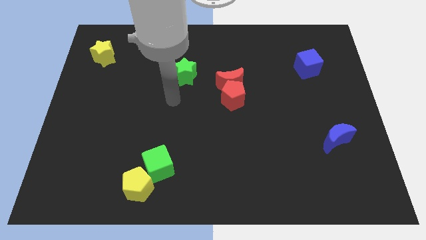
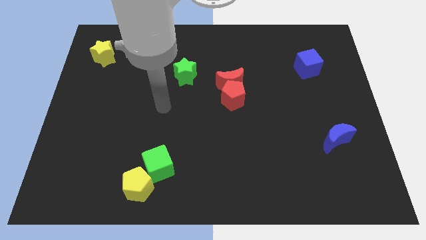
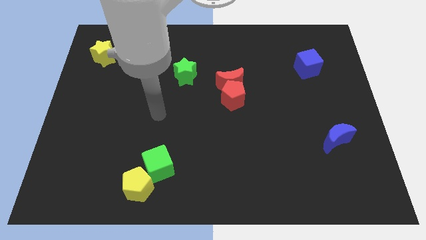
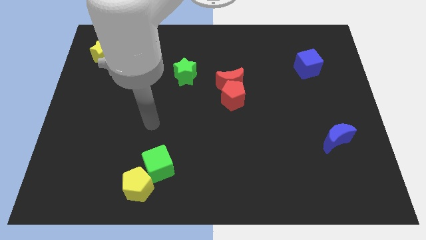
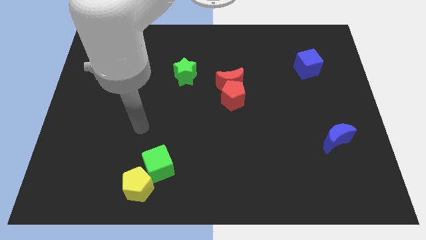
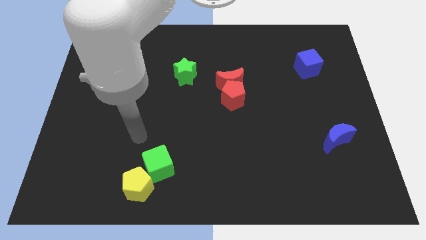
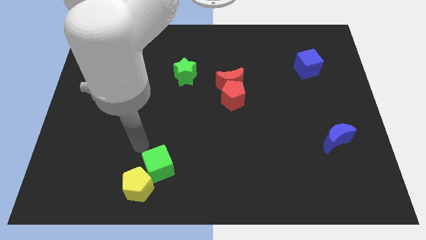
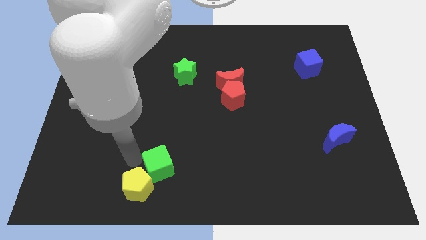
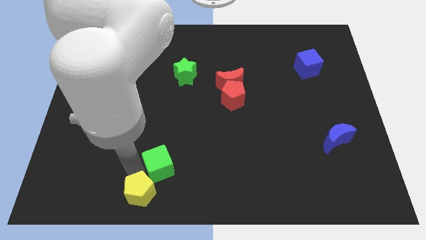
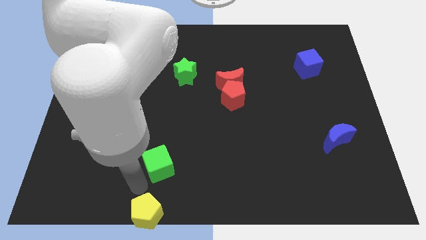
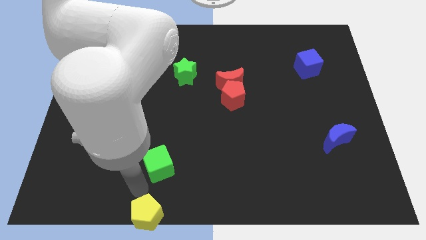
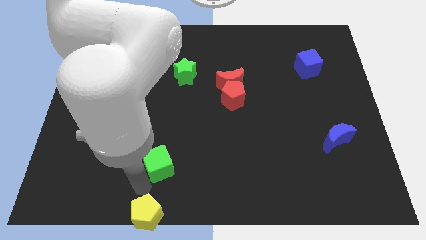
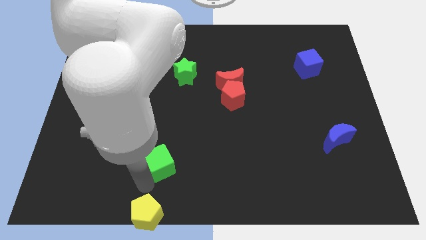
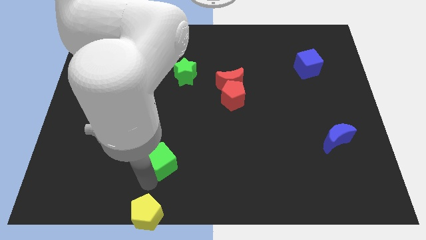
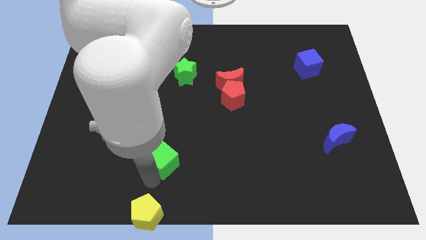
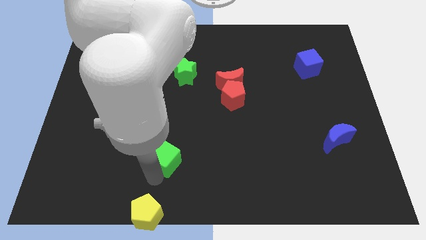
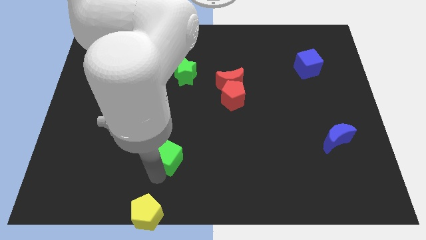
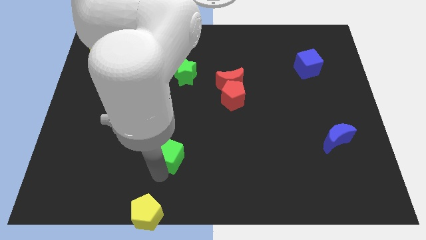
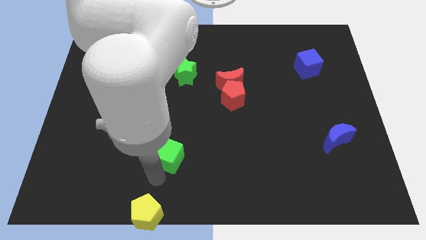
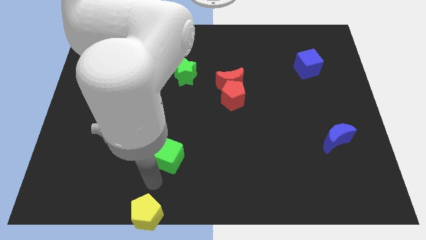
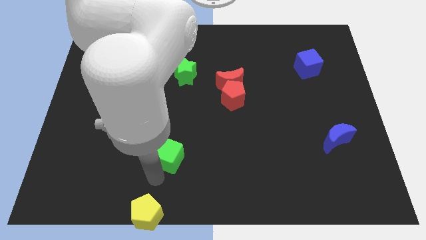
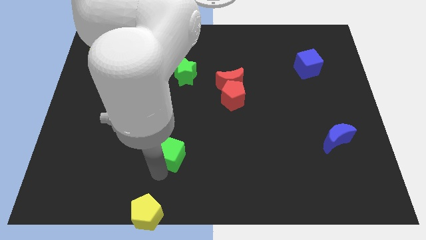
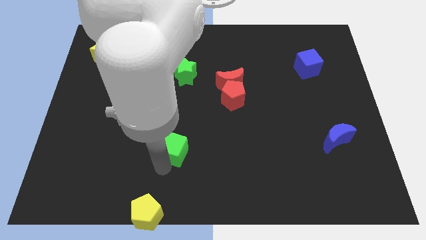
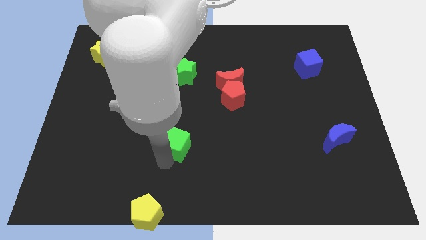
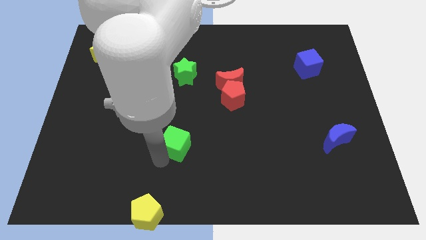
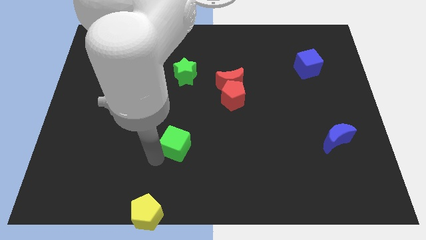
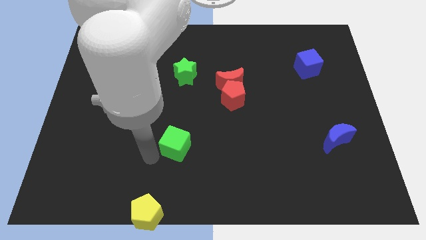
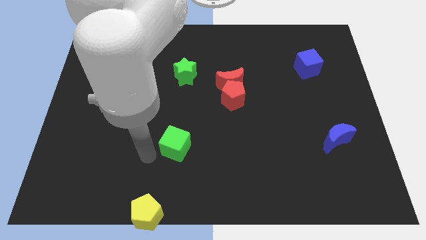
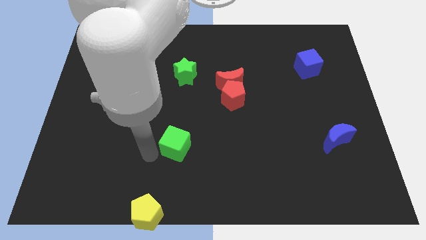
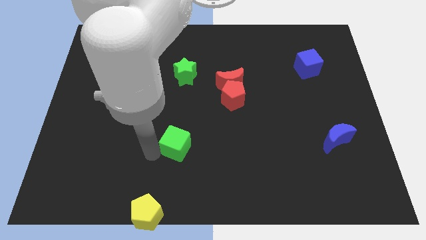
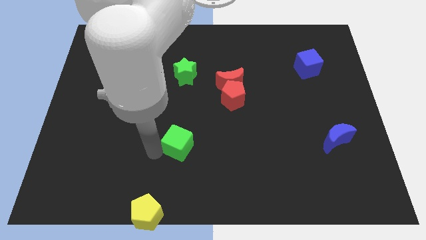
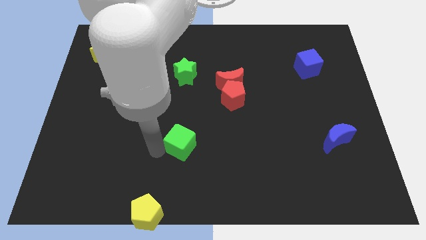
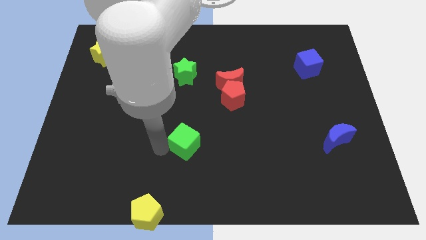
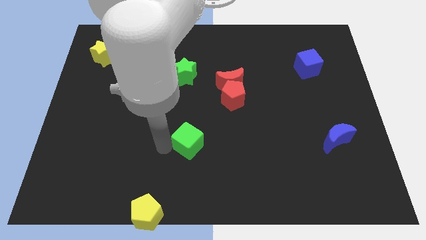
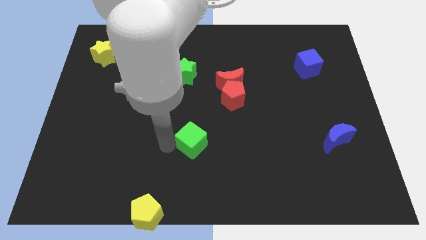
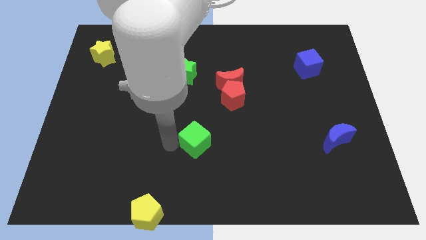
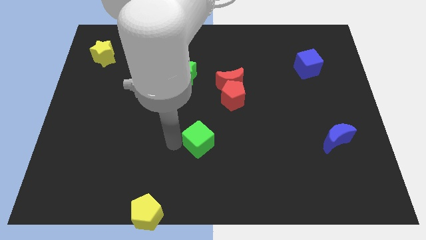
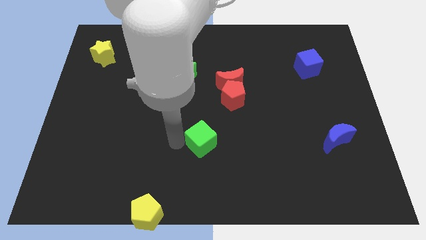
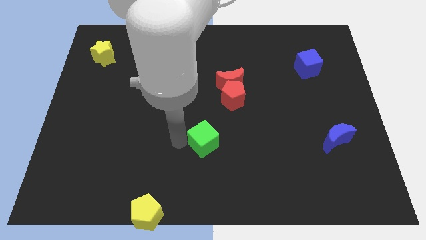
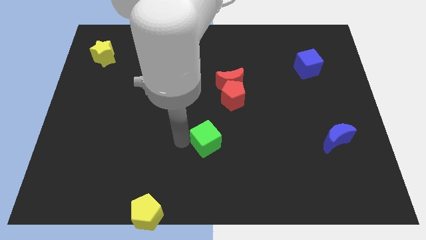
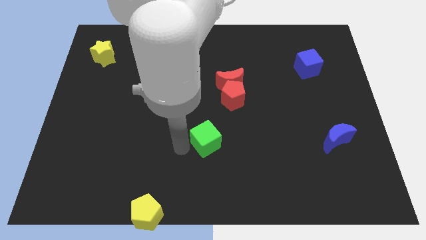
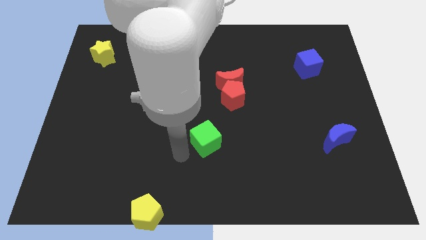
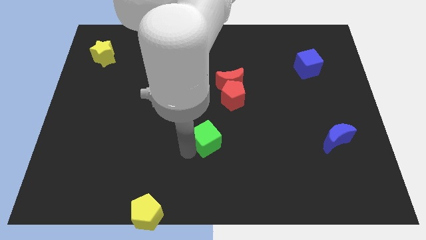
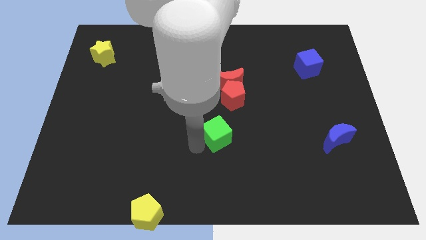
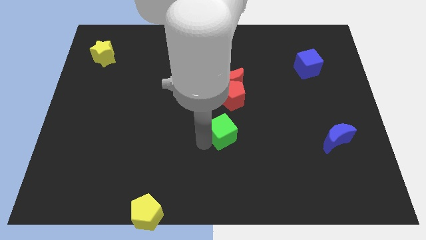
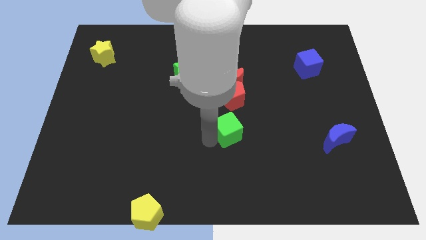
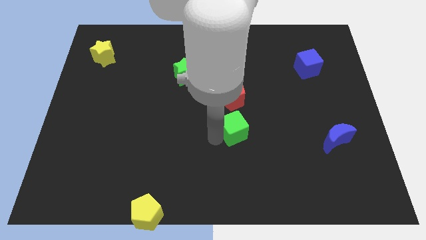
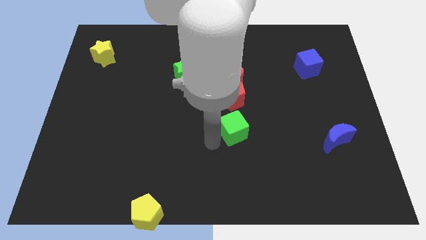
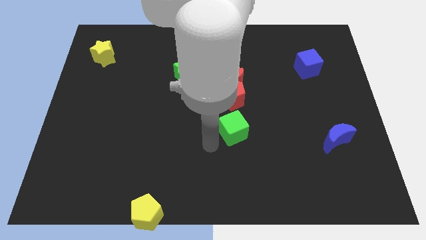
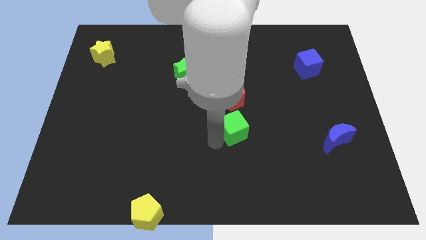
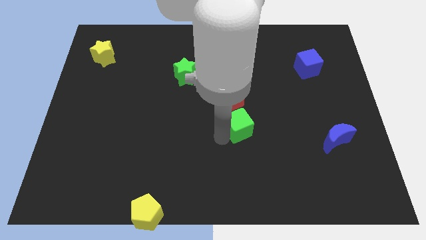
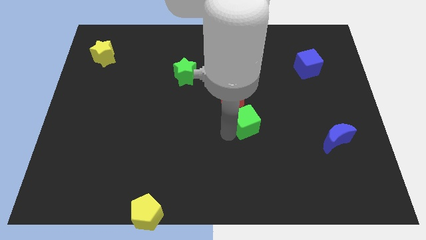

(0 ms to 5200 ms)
move the green cube diagonally down and to the right of the red pentagon

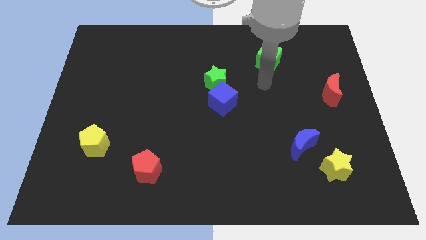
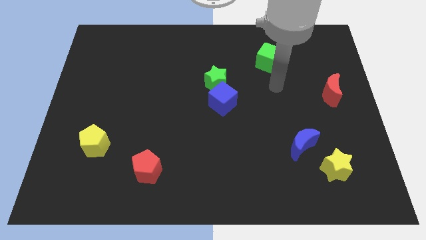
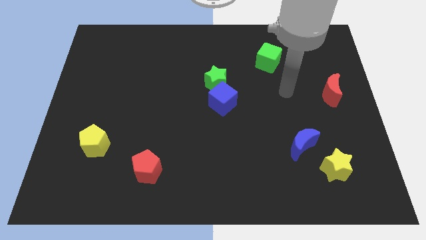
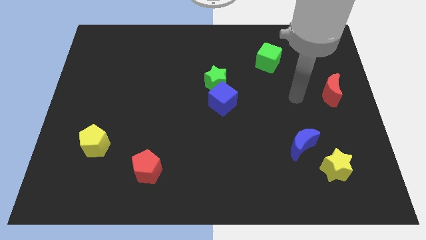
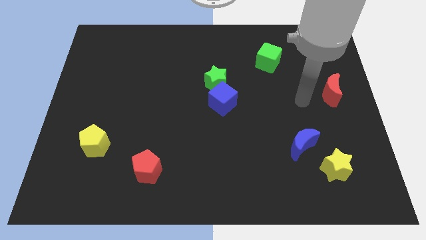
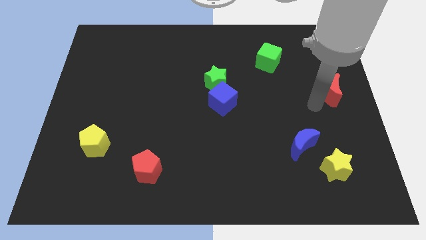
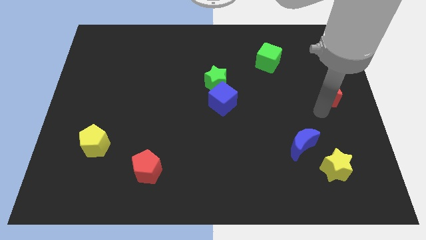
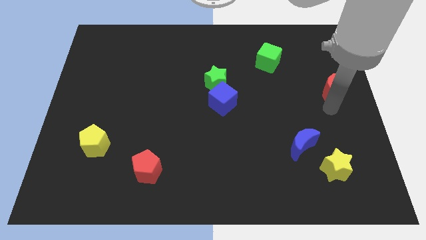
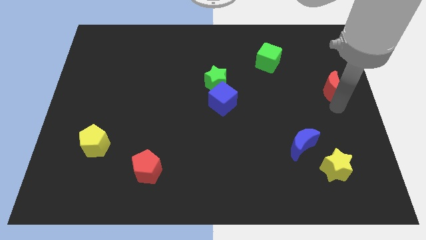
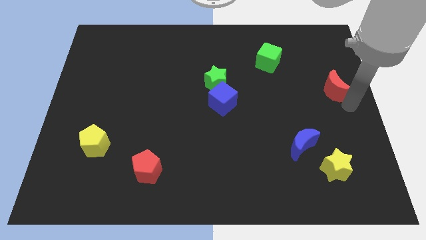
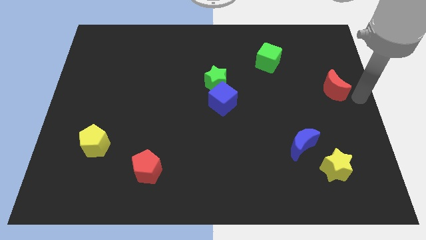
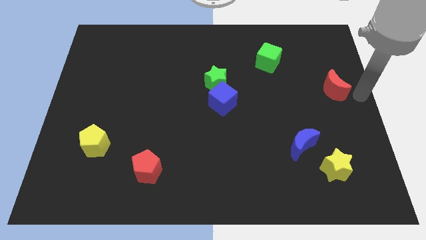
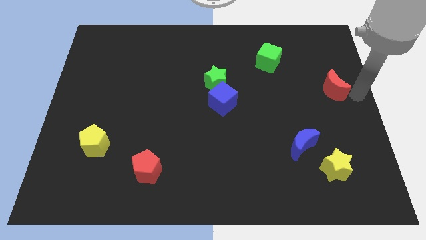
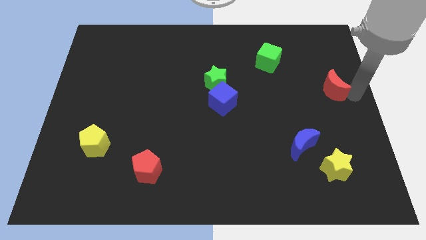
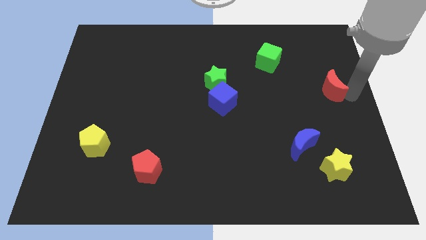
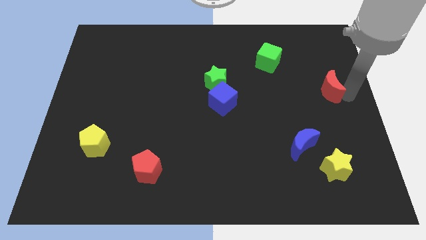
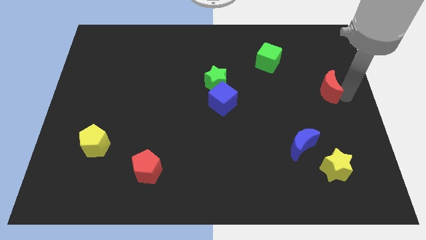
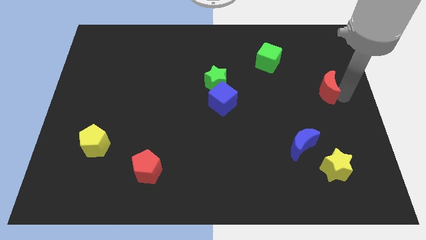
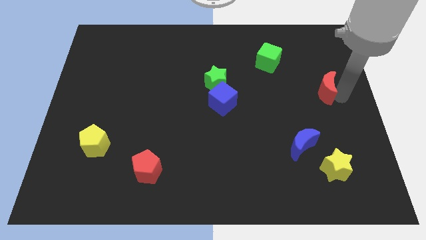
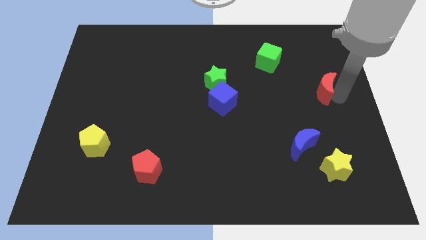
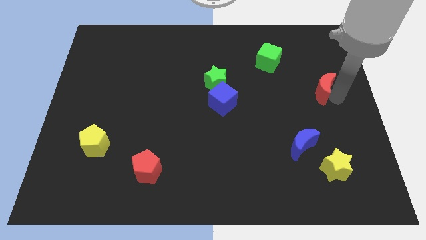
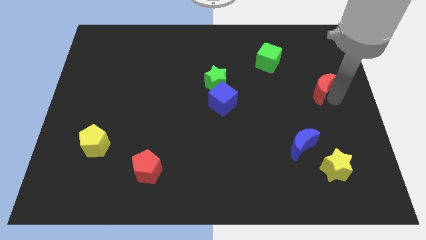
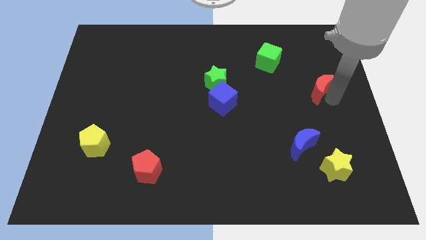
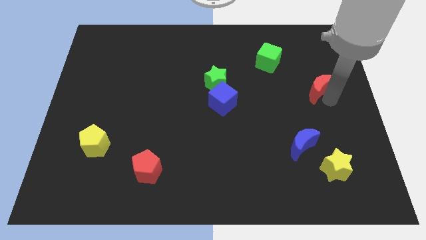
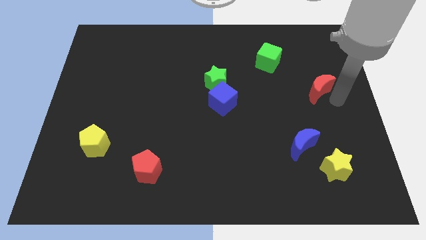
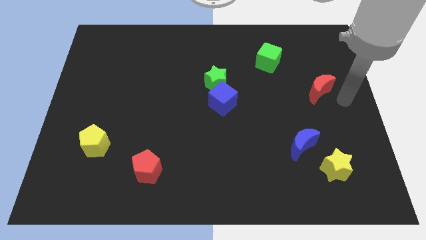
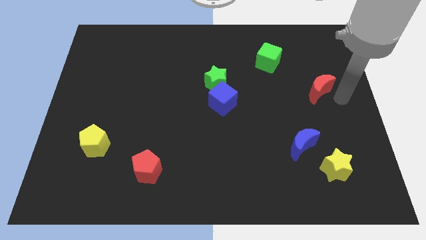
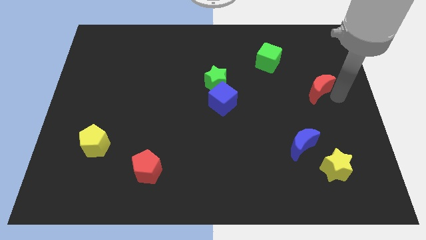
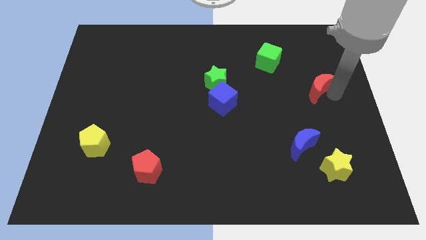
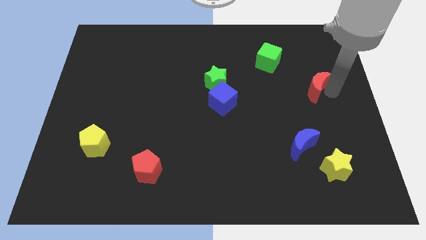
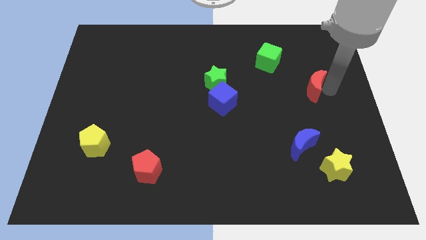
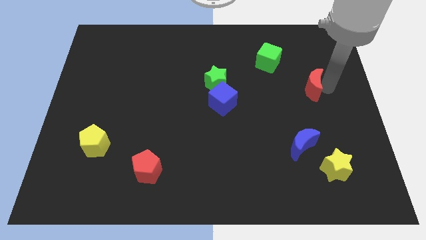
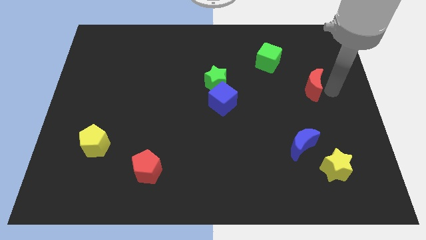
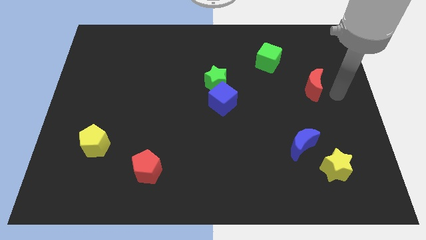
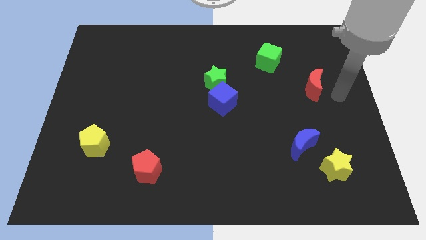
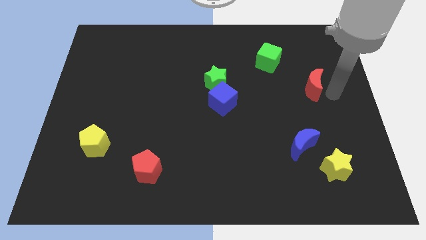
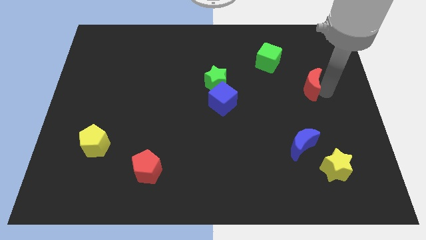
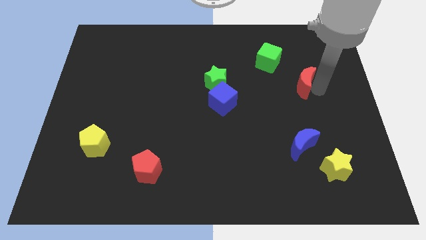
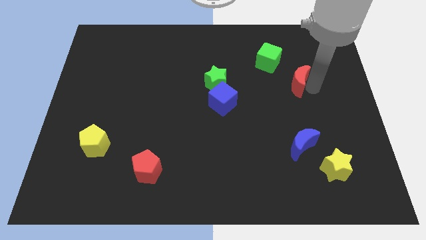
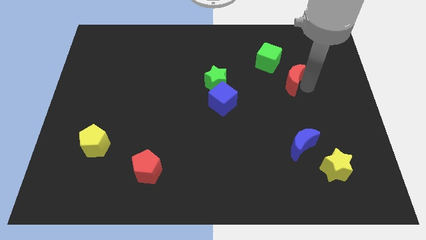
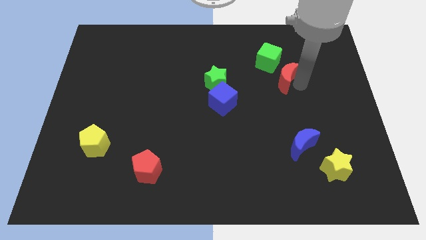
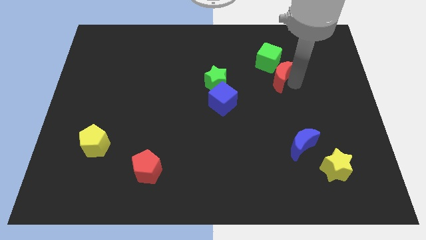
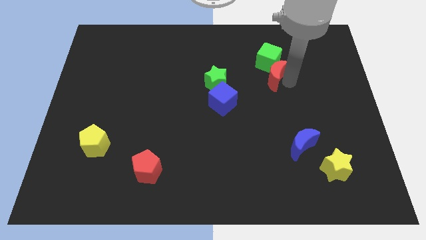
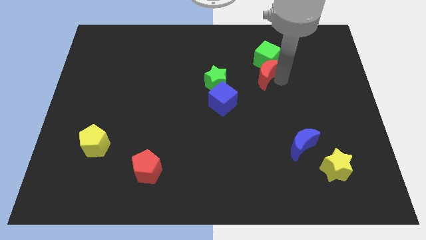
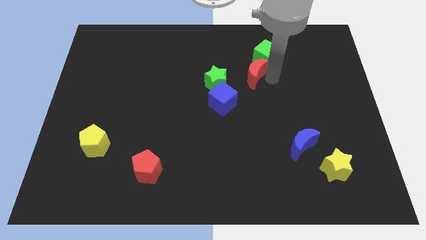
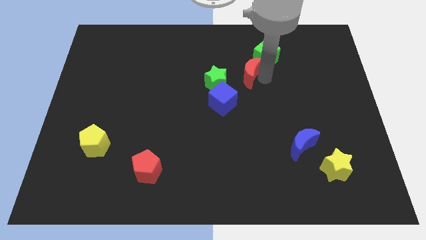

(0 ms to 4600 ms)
put the red moon to the top right of the green star
